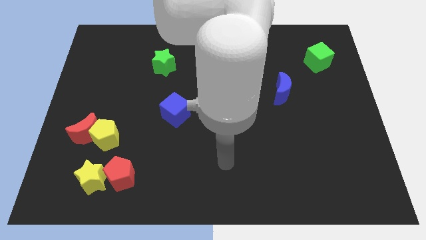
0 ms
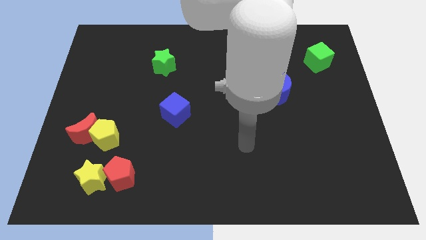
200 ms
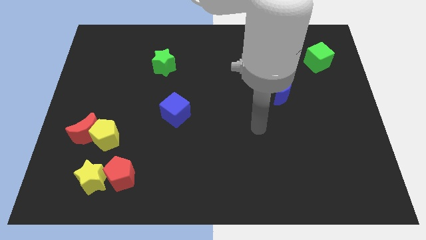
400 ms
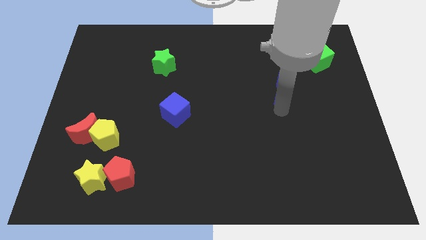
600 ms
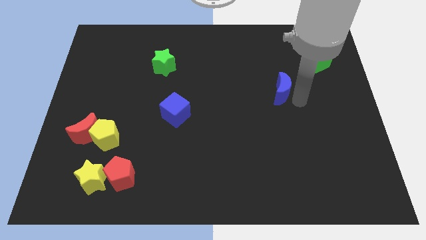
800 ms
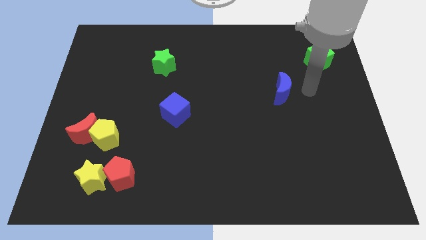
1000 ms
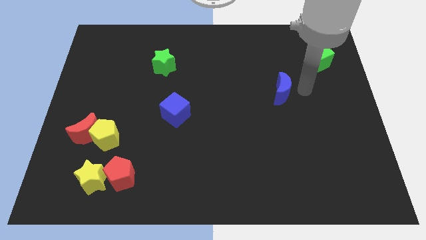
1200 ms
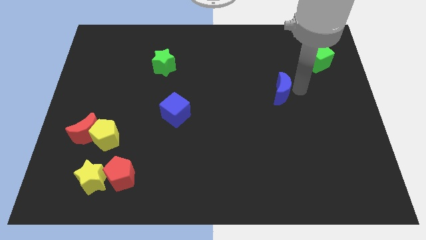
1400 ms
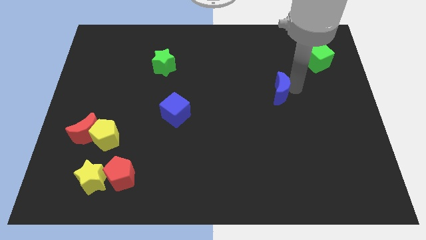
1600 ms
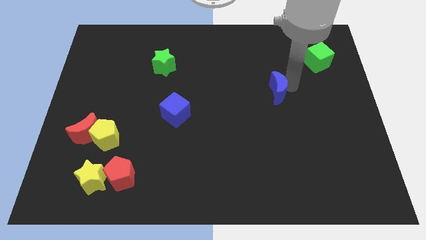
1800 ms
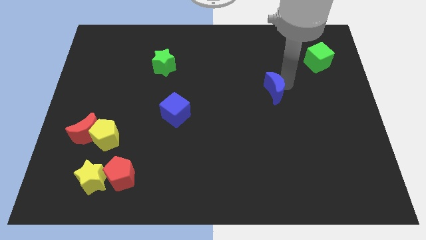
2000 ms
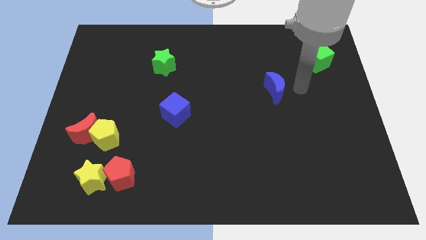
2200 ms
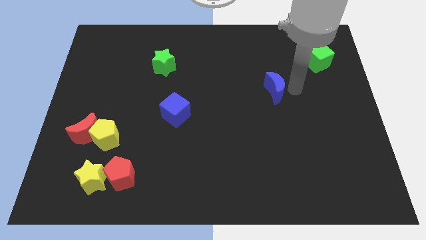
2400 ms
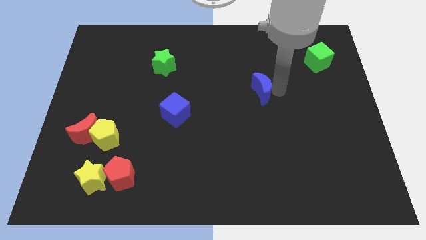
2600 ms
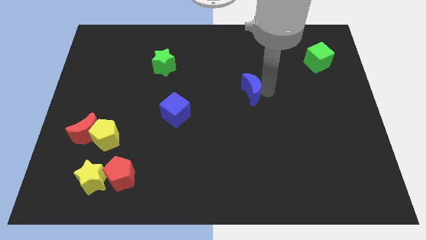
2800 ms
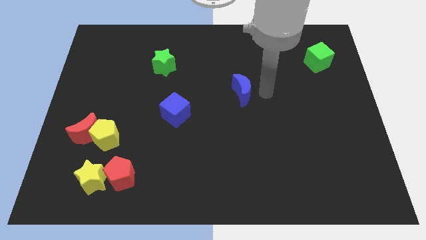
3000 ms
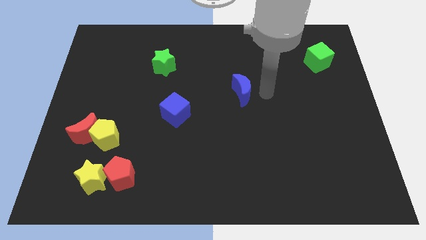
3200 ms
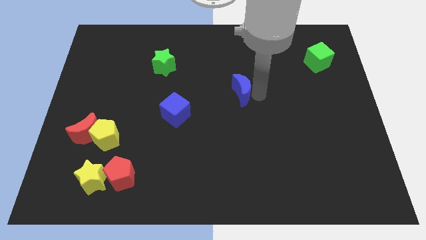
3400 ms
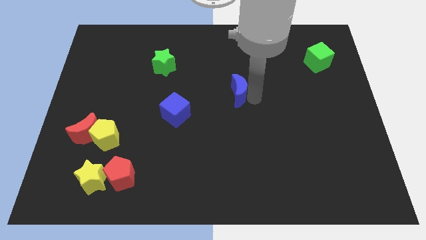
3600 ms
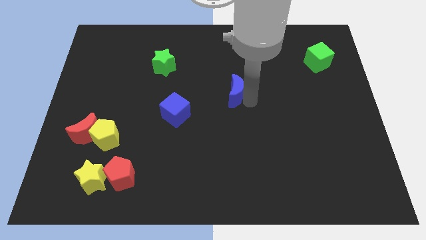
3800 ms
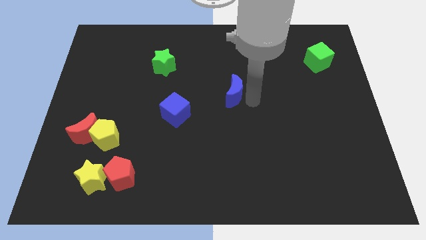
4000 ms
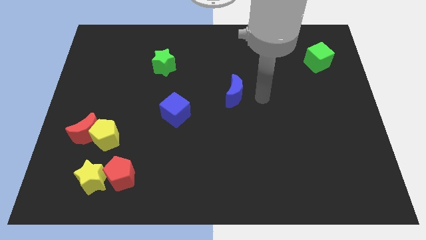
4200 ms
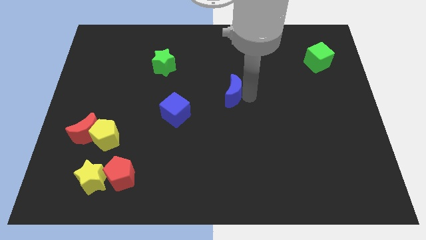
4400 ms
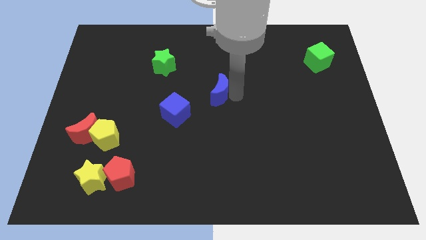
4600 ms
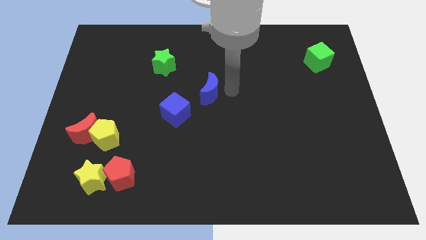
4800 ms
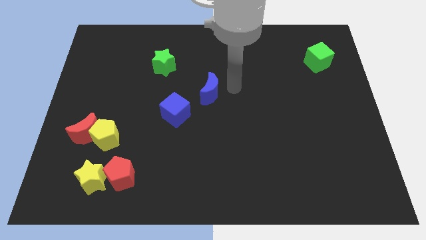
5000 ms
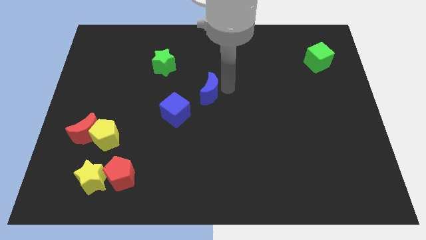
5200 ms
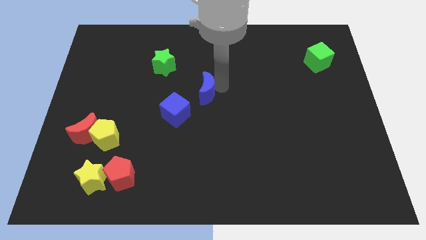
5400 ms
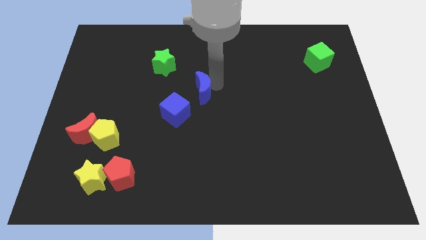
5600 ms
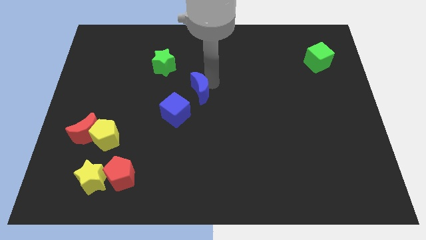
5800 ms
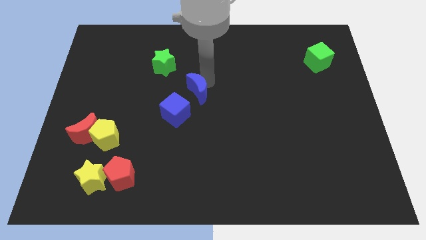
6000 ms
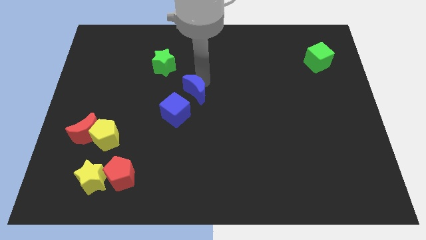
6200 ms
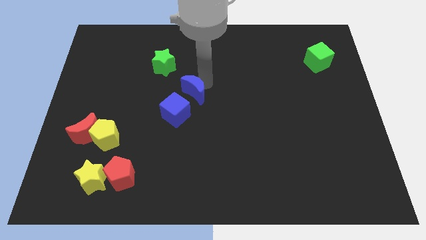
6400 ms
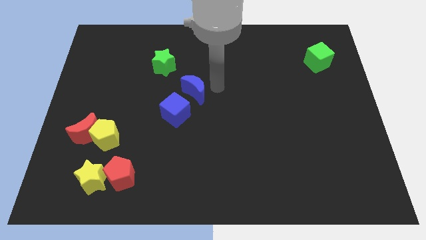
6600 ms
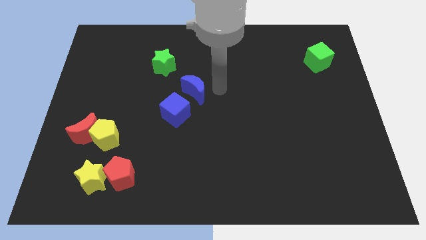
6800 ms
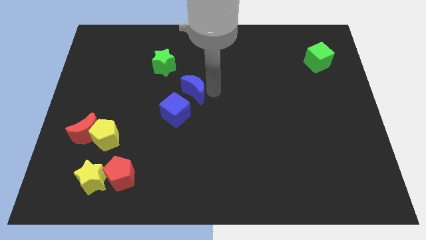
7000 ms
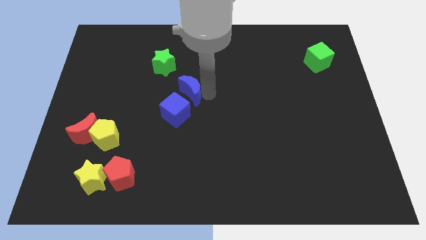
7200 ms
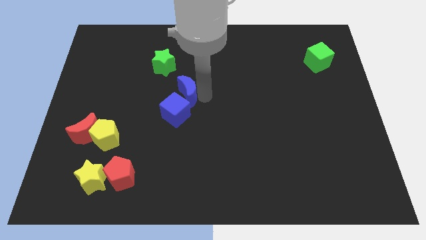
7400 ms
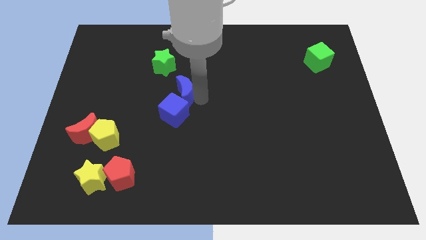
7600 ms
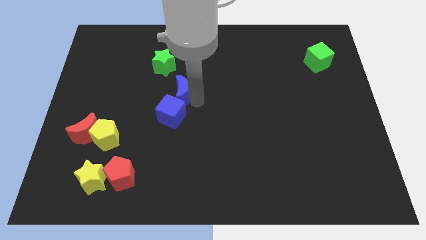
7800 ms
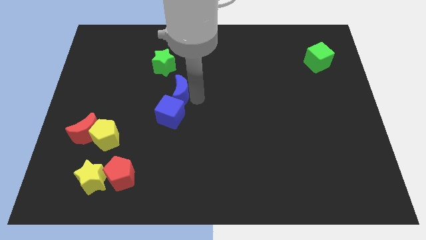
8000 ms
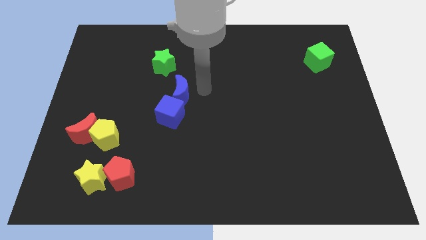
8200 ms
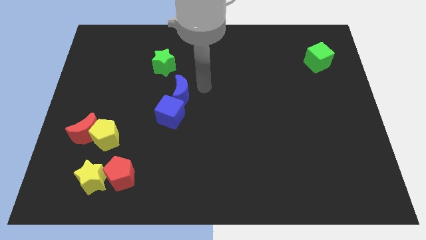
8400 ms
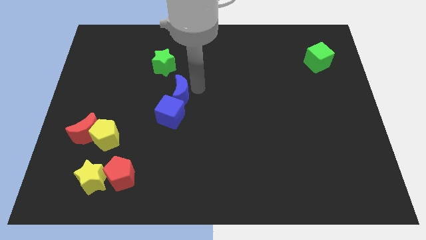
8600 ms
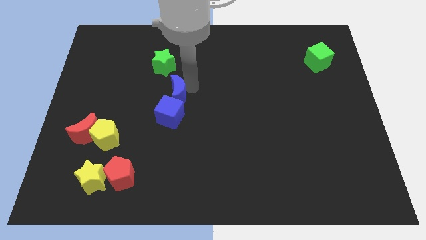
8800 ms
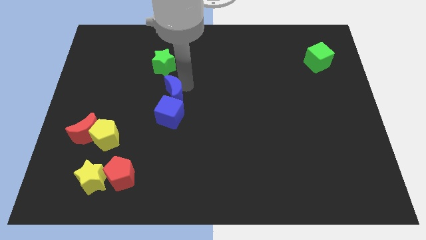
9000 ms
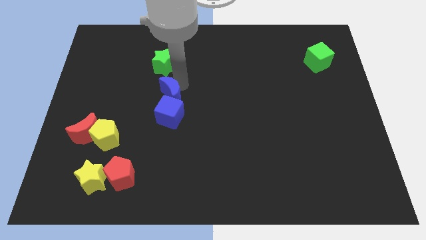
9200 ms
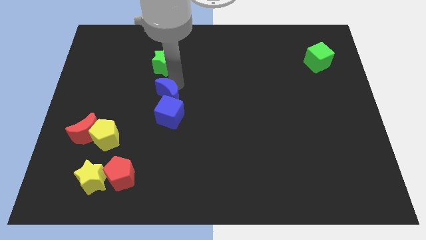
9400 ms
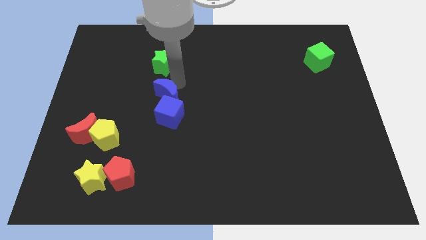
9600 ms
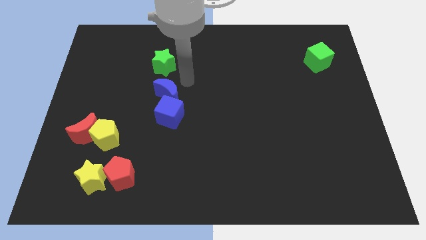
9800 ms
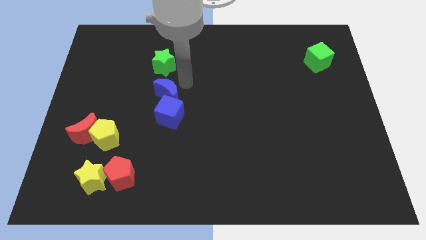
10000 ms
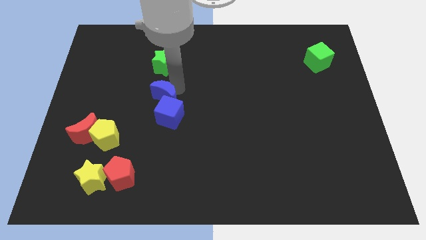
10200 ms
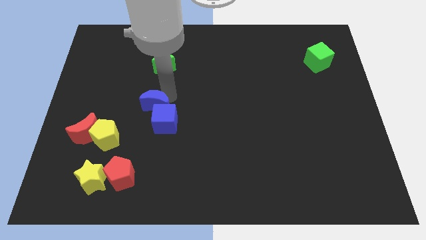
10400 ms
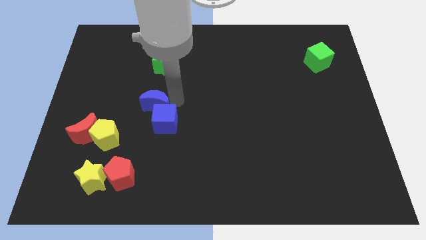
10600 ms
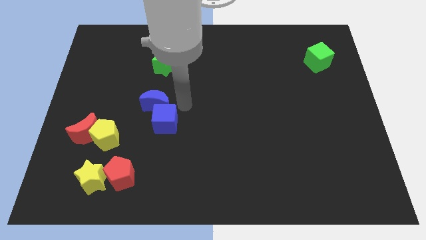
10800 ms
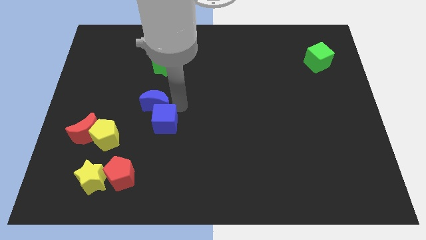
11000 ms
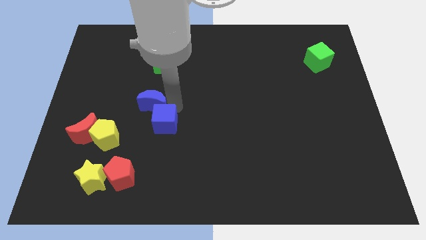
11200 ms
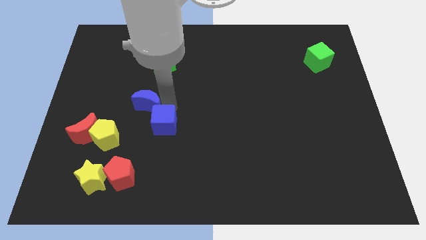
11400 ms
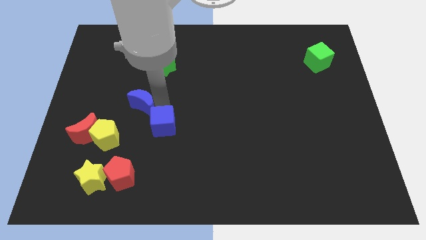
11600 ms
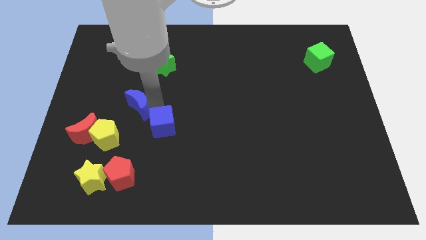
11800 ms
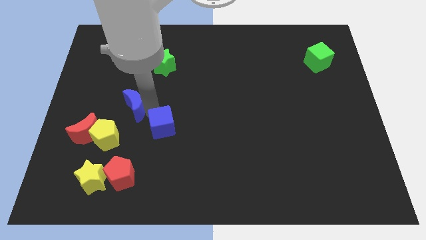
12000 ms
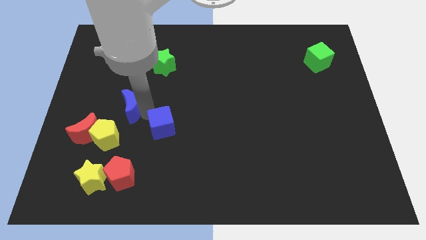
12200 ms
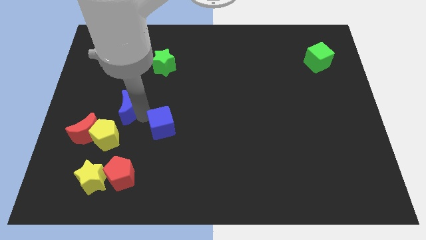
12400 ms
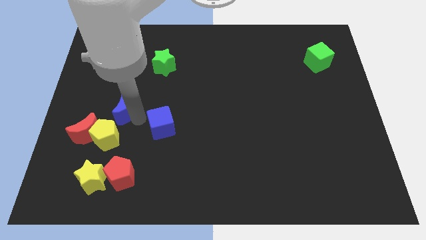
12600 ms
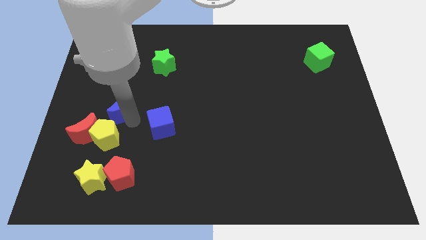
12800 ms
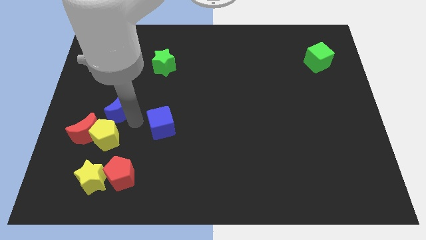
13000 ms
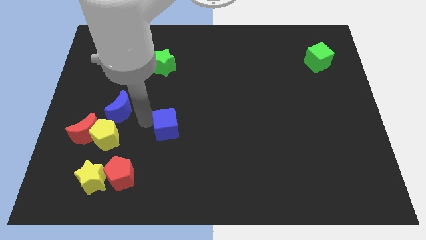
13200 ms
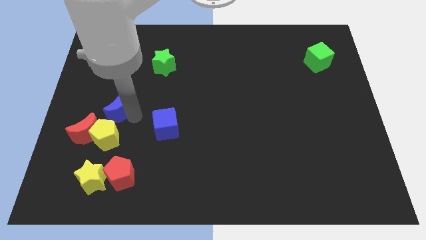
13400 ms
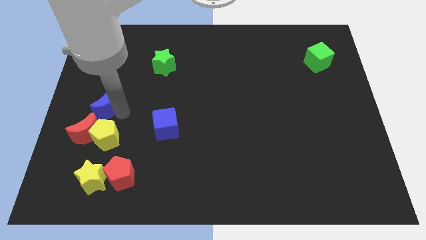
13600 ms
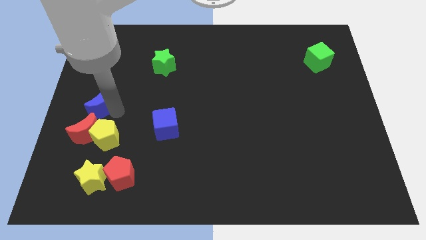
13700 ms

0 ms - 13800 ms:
put the blue moon to the left side of the board
